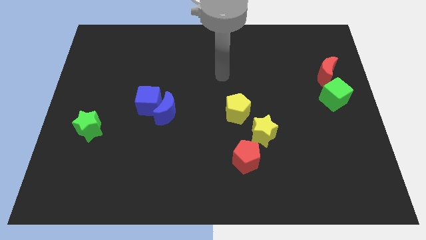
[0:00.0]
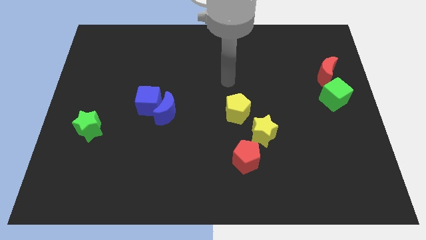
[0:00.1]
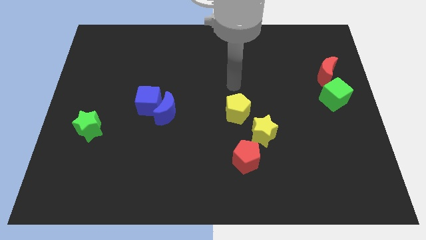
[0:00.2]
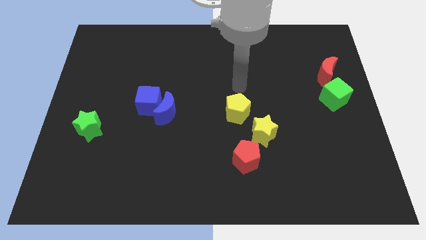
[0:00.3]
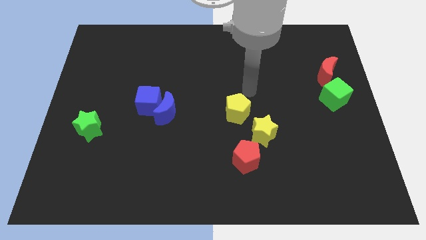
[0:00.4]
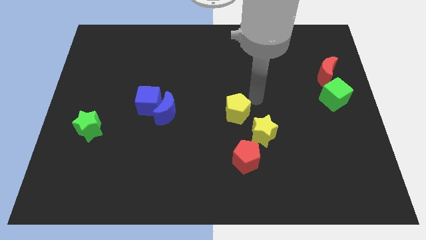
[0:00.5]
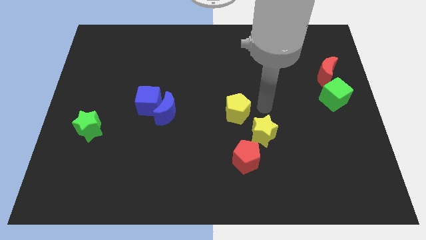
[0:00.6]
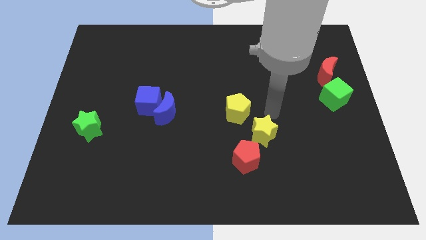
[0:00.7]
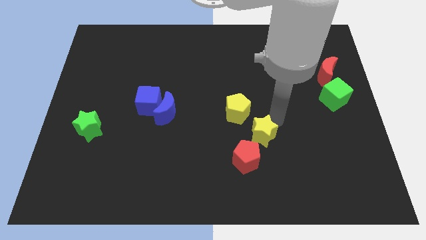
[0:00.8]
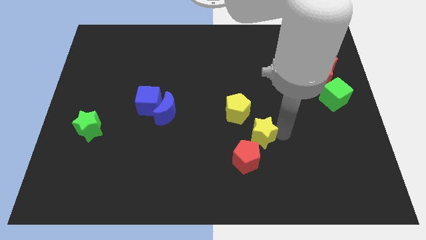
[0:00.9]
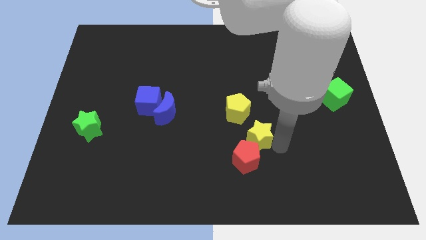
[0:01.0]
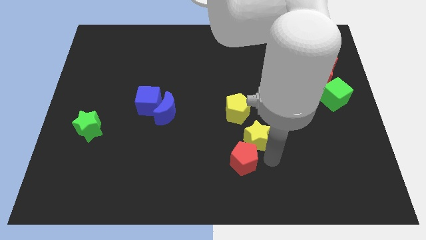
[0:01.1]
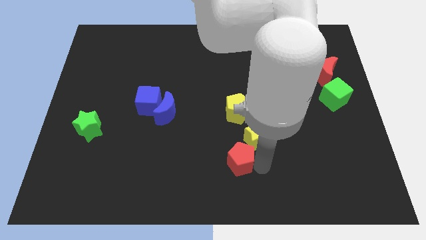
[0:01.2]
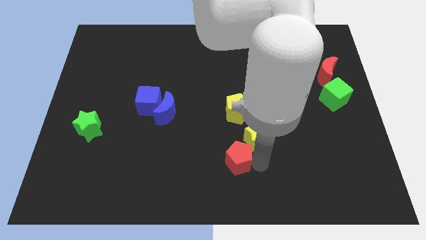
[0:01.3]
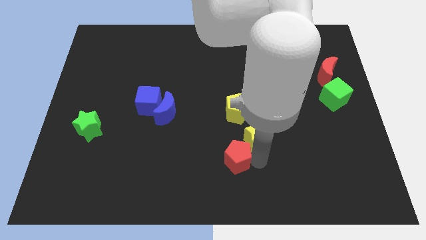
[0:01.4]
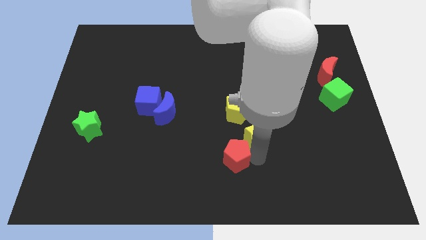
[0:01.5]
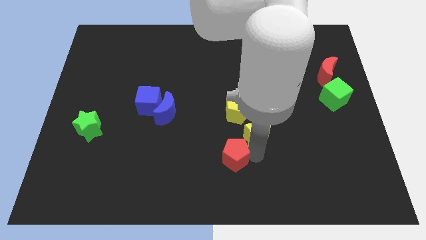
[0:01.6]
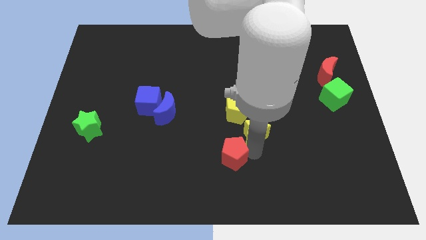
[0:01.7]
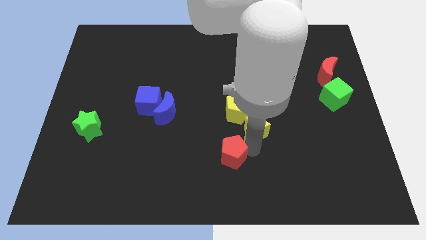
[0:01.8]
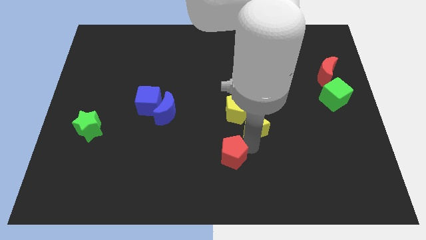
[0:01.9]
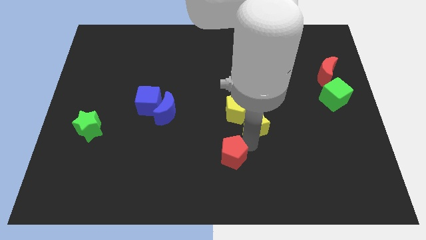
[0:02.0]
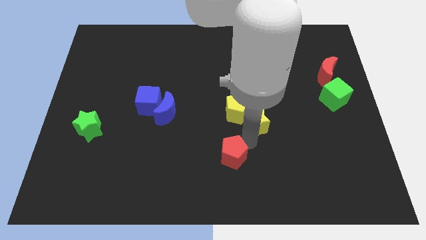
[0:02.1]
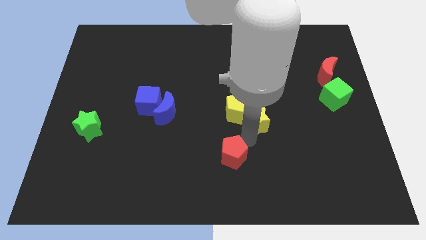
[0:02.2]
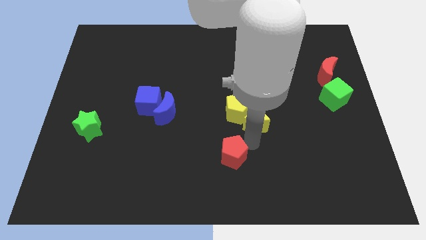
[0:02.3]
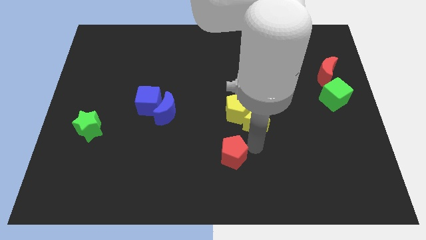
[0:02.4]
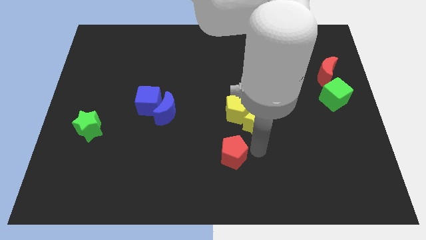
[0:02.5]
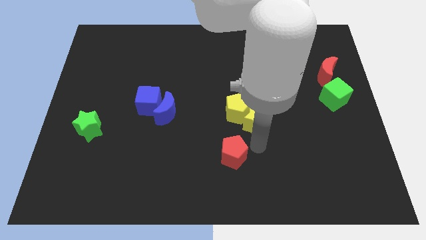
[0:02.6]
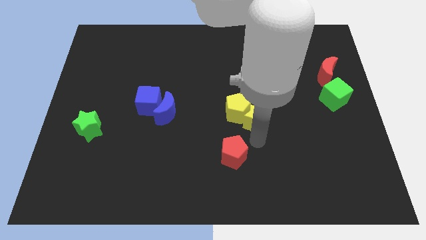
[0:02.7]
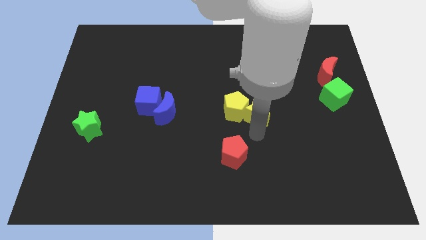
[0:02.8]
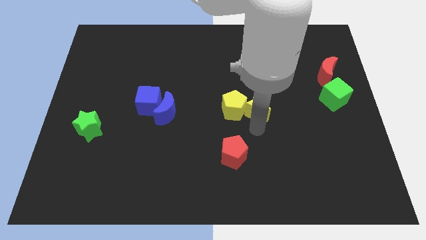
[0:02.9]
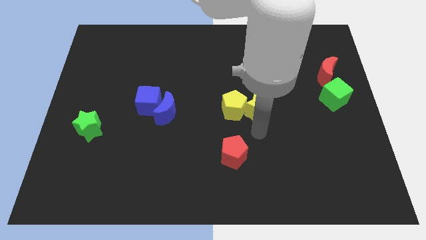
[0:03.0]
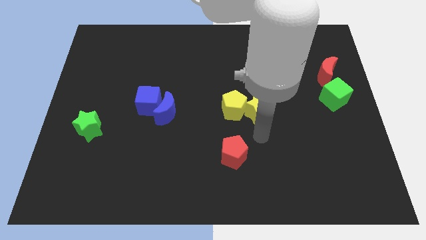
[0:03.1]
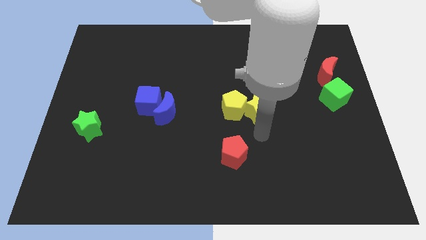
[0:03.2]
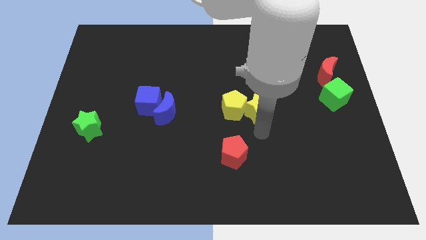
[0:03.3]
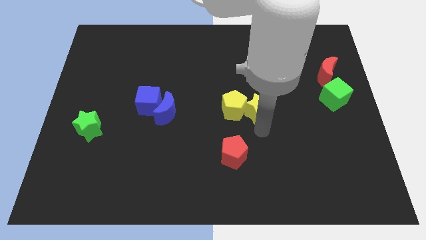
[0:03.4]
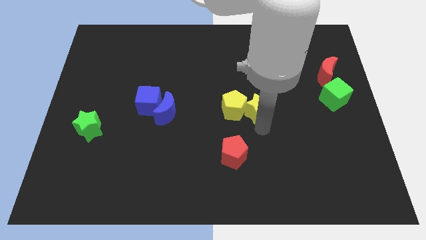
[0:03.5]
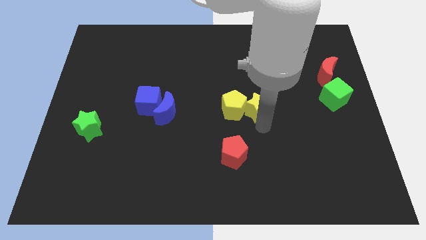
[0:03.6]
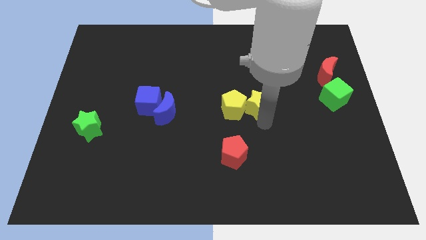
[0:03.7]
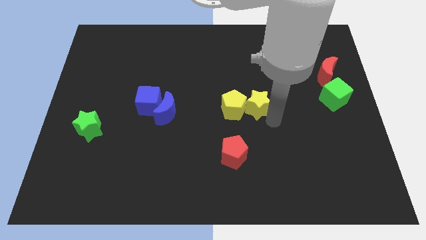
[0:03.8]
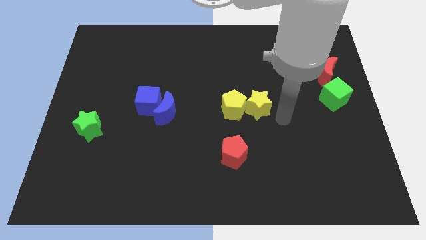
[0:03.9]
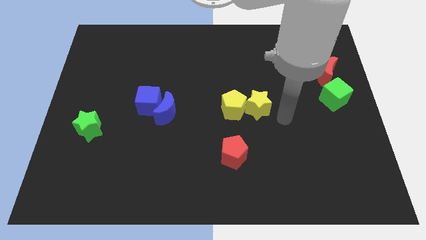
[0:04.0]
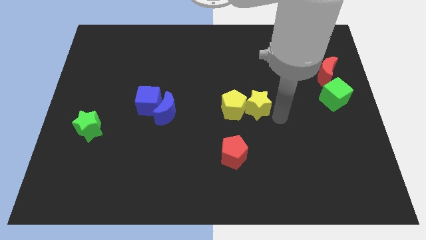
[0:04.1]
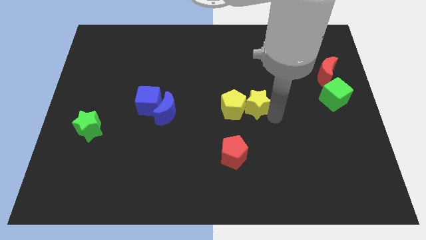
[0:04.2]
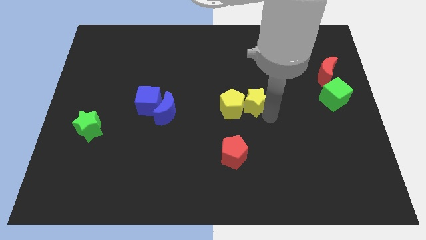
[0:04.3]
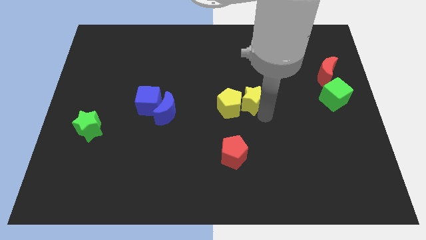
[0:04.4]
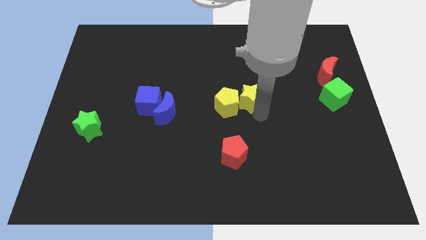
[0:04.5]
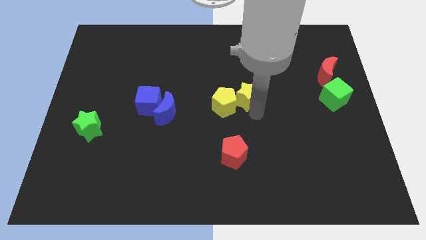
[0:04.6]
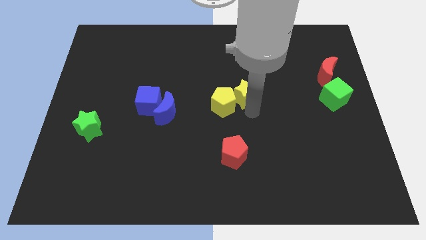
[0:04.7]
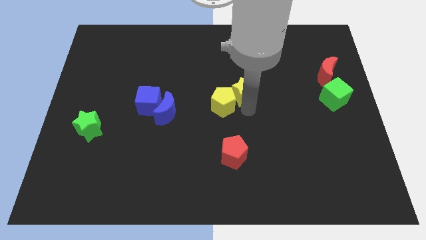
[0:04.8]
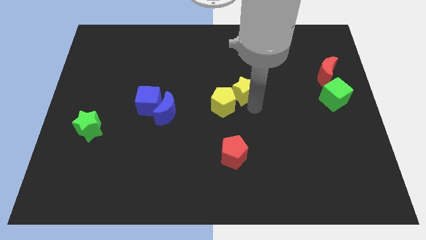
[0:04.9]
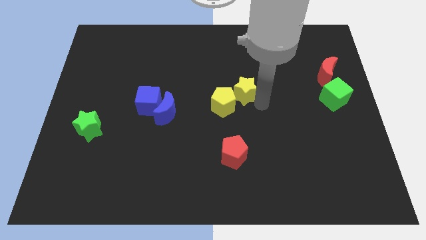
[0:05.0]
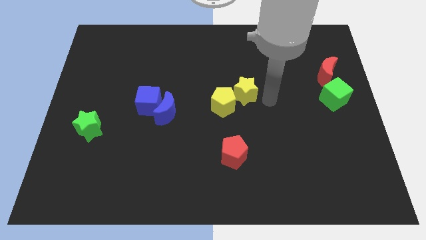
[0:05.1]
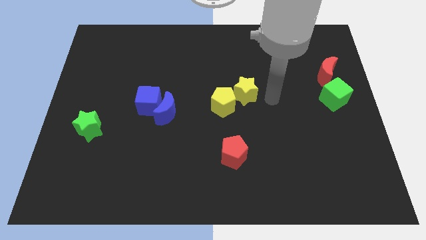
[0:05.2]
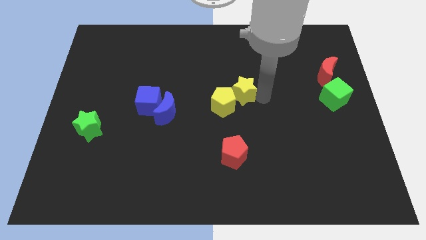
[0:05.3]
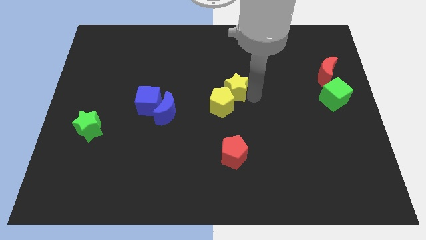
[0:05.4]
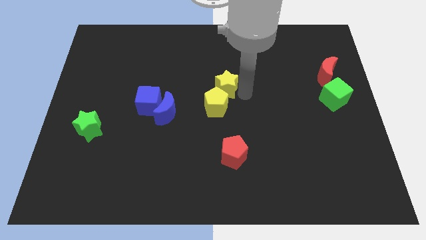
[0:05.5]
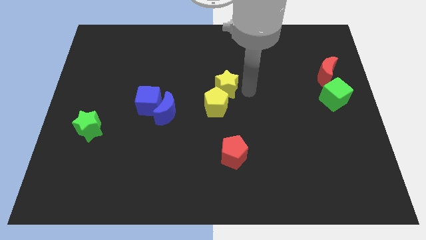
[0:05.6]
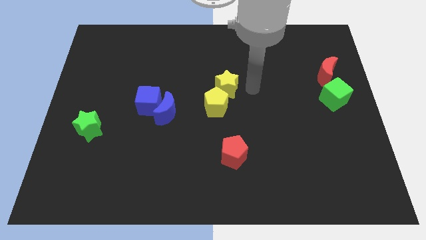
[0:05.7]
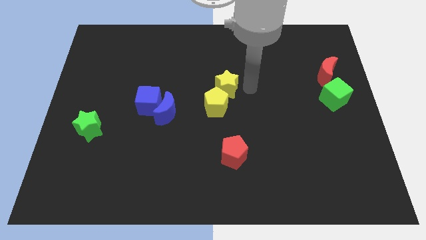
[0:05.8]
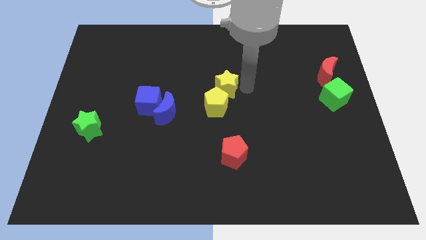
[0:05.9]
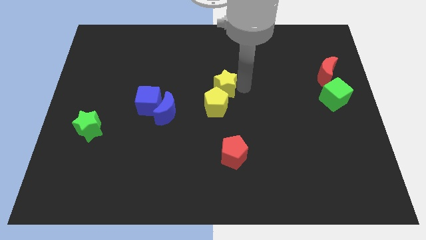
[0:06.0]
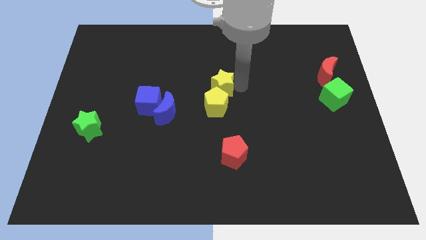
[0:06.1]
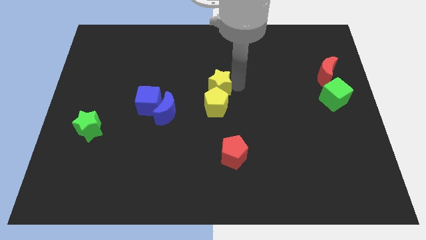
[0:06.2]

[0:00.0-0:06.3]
slide the yellow star diagonally up and to the left of the yellow pentagon
